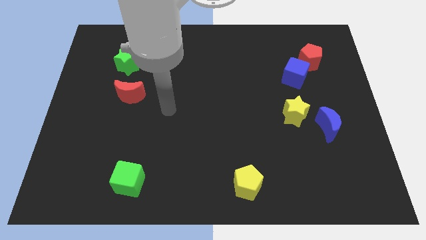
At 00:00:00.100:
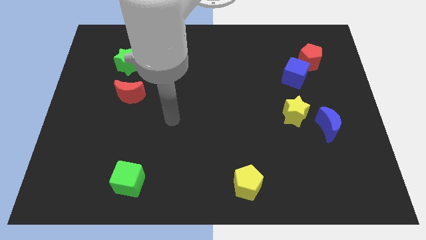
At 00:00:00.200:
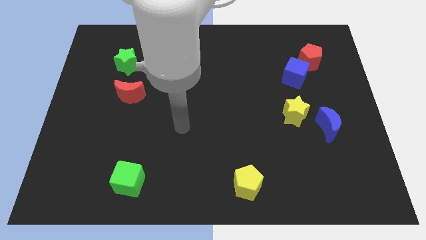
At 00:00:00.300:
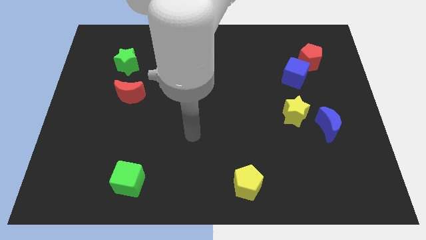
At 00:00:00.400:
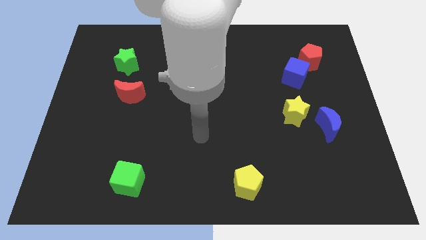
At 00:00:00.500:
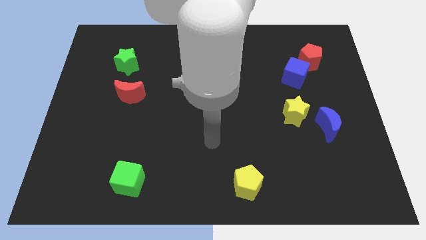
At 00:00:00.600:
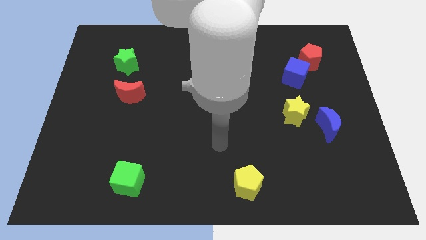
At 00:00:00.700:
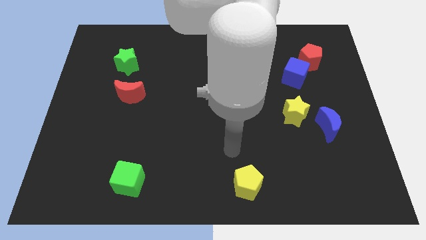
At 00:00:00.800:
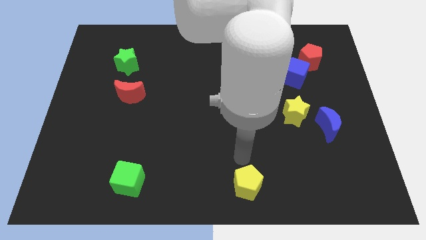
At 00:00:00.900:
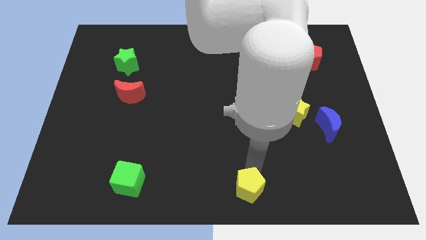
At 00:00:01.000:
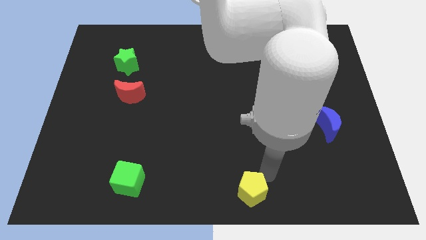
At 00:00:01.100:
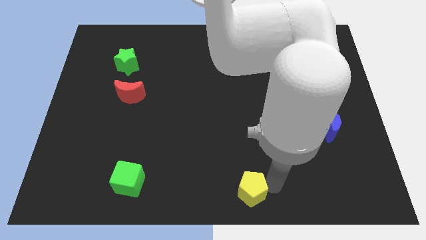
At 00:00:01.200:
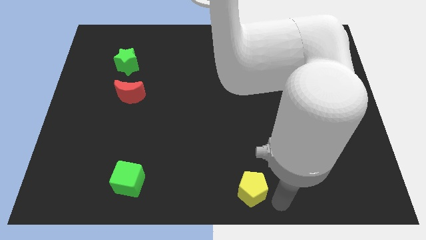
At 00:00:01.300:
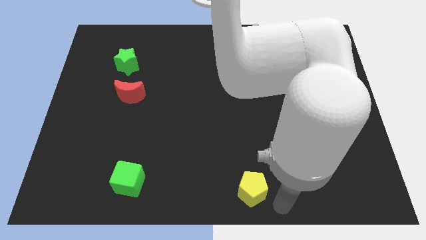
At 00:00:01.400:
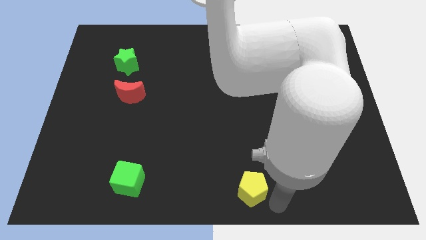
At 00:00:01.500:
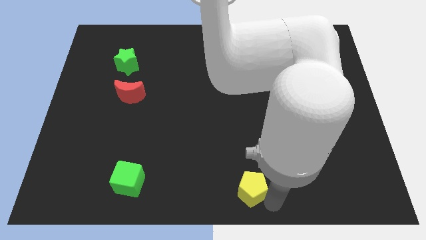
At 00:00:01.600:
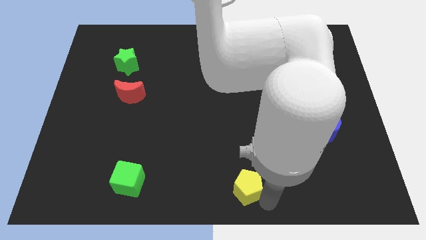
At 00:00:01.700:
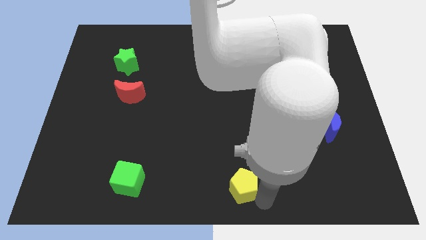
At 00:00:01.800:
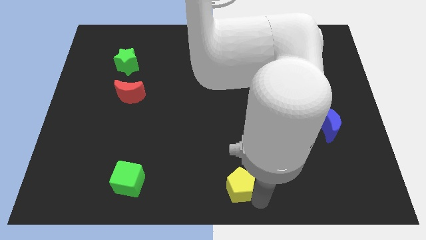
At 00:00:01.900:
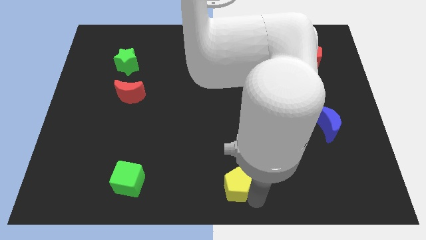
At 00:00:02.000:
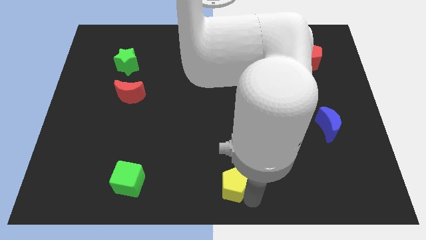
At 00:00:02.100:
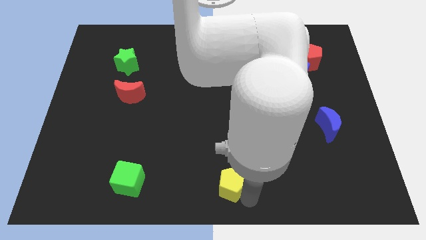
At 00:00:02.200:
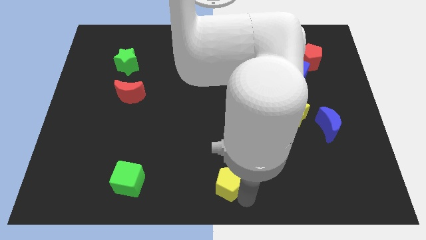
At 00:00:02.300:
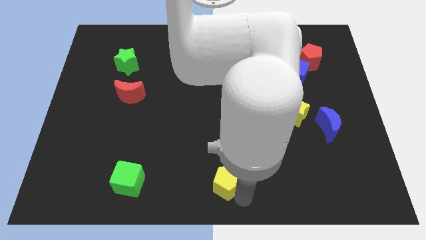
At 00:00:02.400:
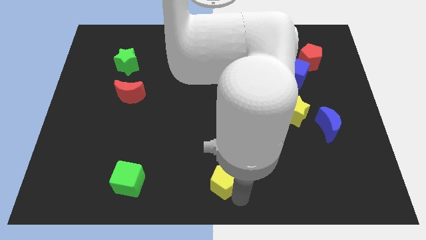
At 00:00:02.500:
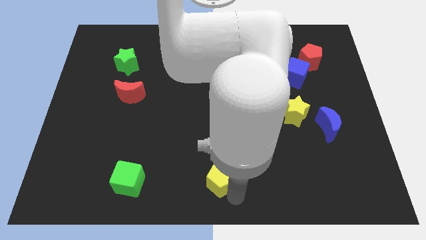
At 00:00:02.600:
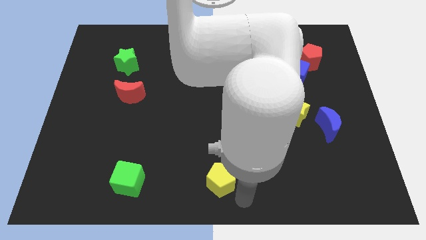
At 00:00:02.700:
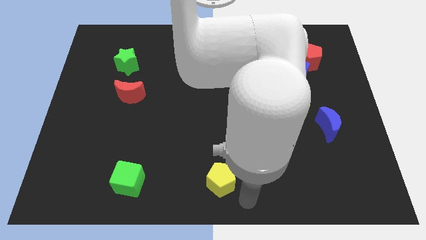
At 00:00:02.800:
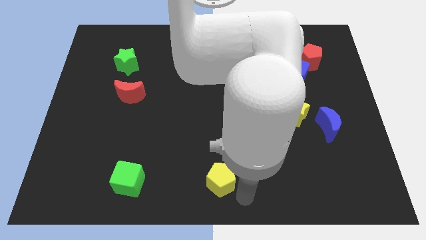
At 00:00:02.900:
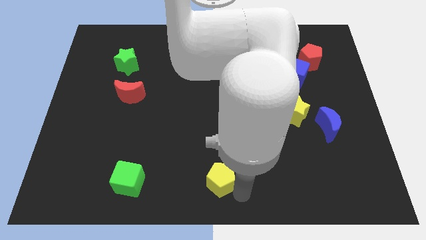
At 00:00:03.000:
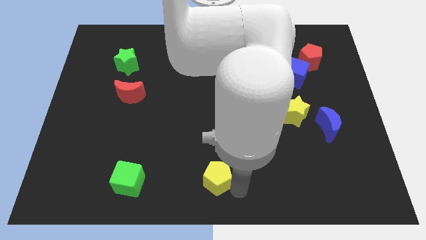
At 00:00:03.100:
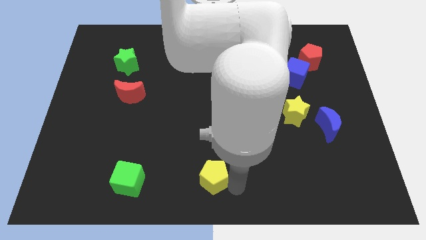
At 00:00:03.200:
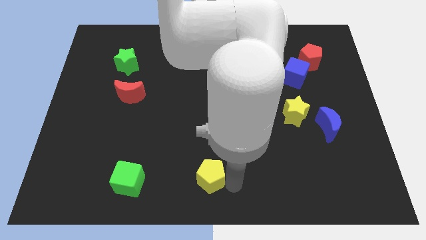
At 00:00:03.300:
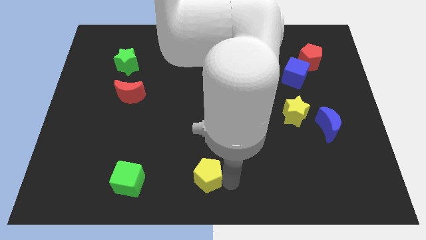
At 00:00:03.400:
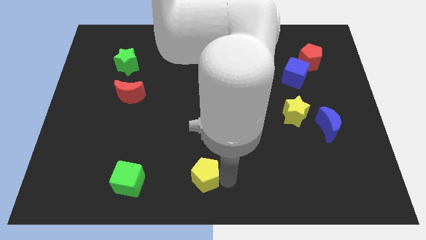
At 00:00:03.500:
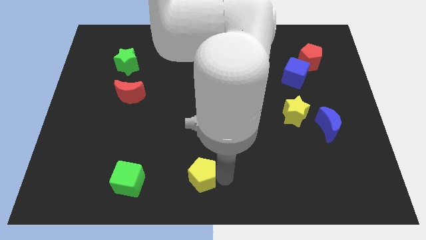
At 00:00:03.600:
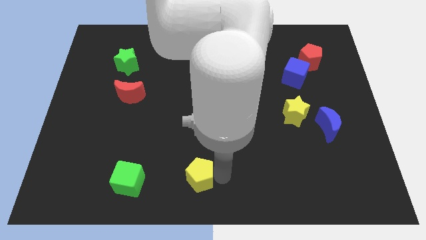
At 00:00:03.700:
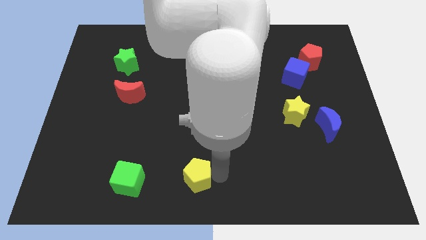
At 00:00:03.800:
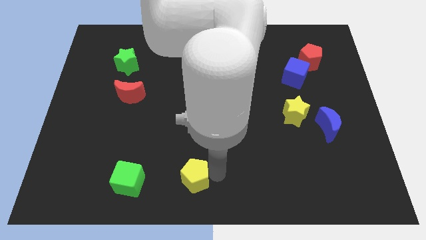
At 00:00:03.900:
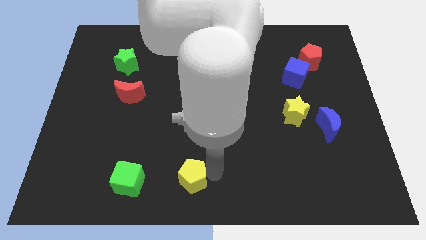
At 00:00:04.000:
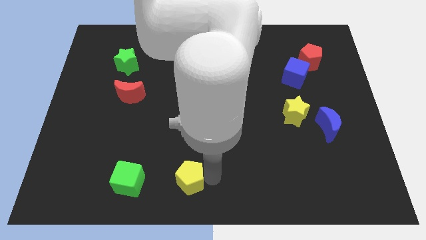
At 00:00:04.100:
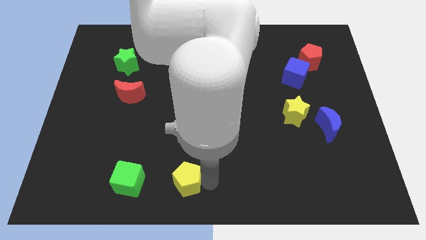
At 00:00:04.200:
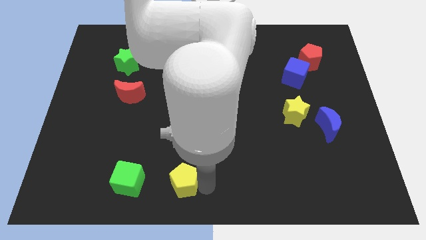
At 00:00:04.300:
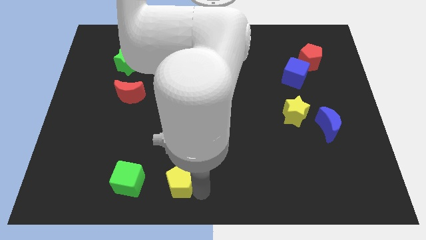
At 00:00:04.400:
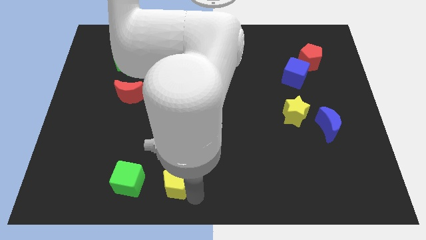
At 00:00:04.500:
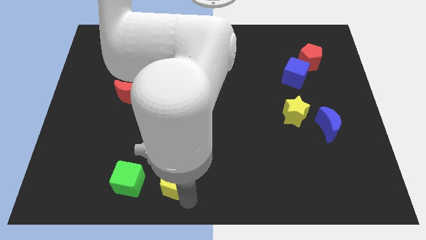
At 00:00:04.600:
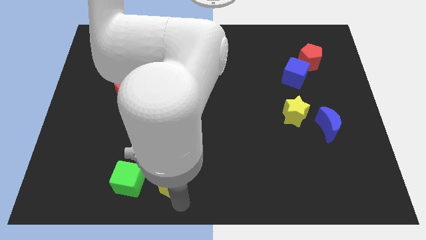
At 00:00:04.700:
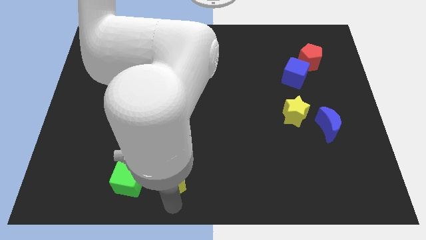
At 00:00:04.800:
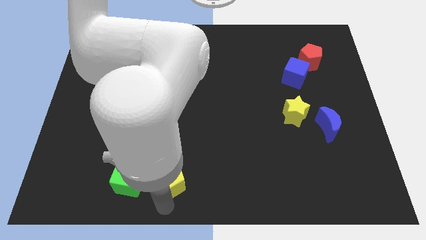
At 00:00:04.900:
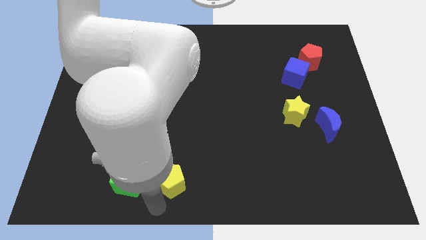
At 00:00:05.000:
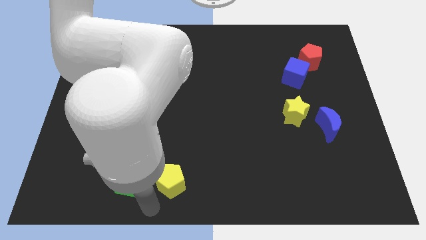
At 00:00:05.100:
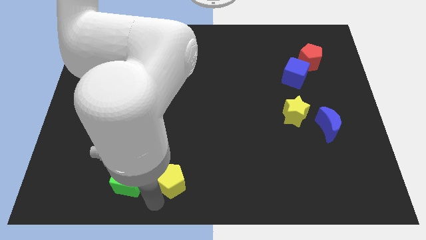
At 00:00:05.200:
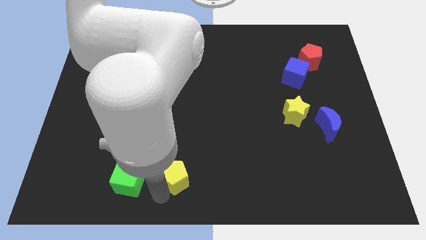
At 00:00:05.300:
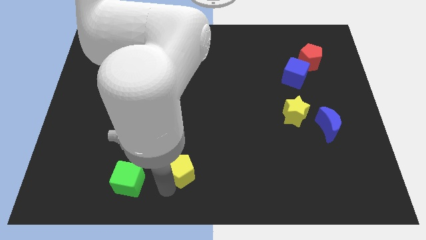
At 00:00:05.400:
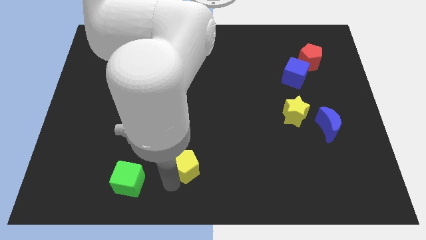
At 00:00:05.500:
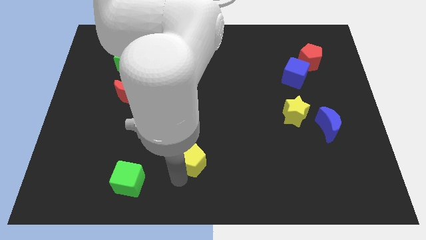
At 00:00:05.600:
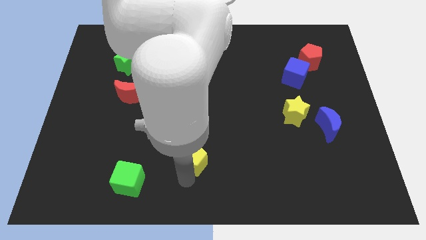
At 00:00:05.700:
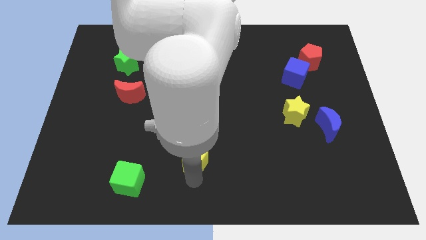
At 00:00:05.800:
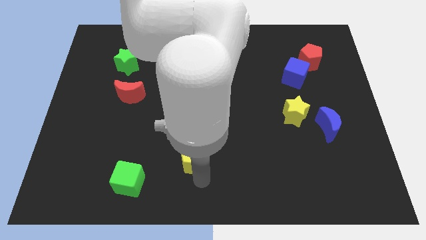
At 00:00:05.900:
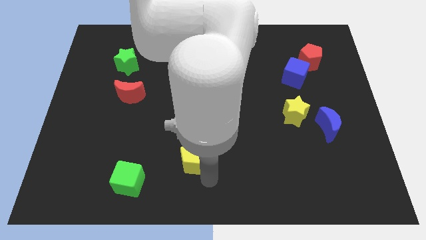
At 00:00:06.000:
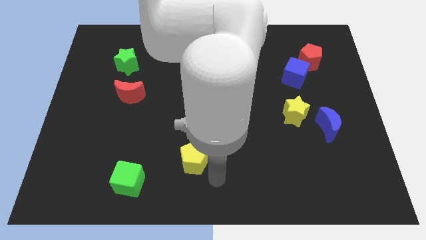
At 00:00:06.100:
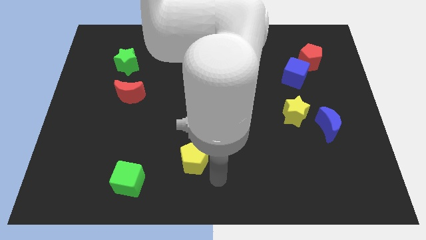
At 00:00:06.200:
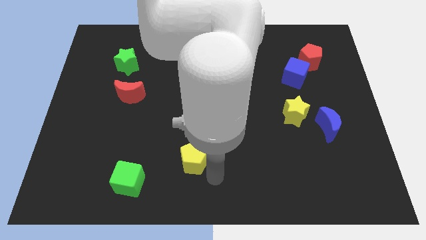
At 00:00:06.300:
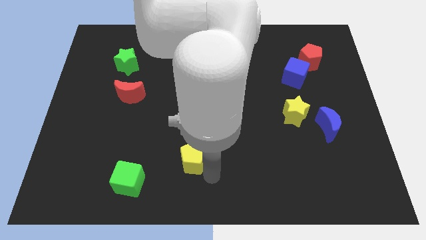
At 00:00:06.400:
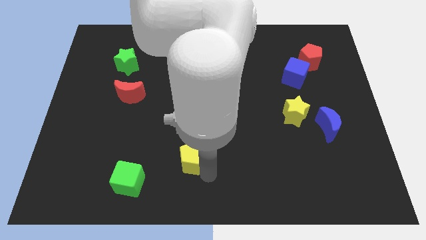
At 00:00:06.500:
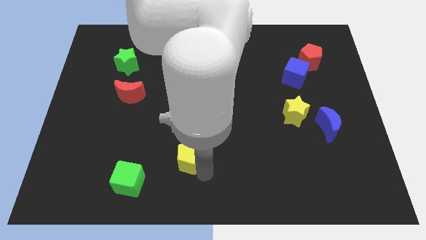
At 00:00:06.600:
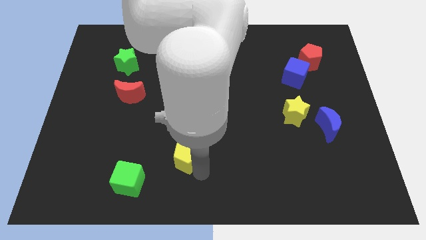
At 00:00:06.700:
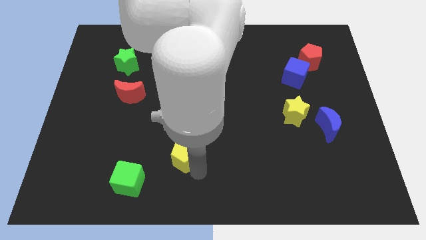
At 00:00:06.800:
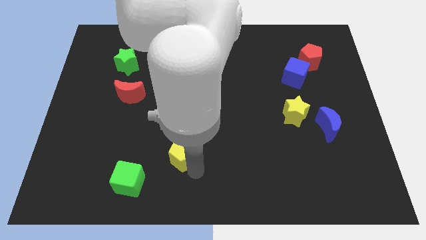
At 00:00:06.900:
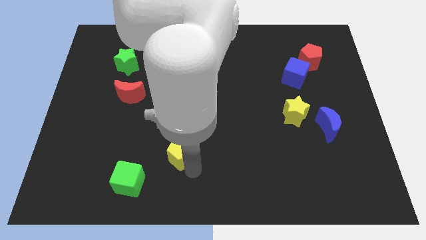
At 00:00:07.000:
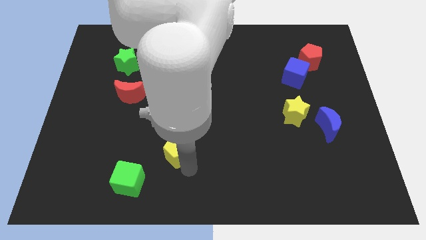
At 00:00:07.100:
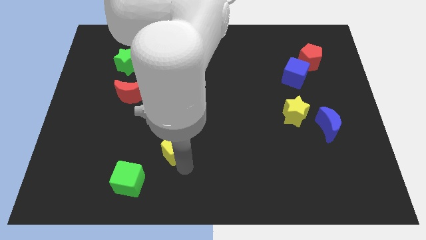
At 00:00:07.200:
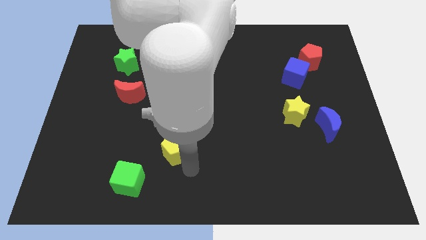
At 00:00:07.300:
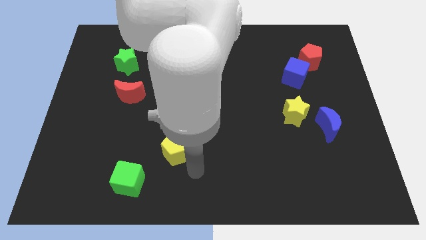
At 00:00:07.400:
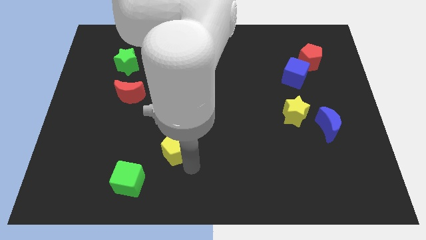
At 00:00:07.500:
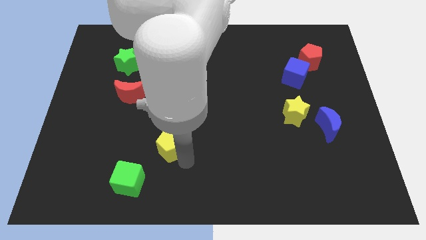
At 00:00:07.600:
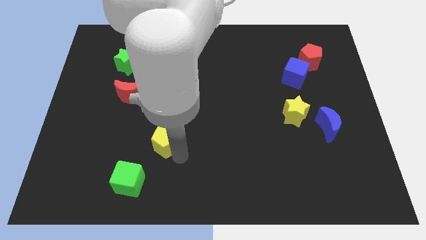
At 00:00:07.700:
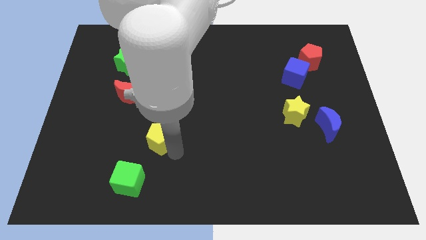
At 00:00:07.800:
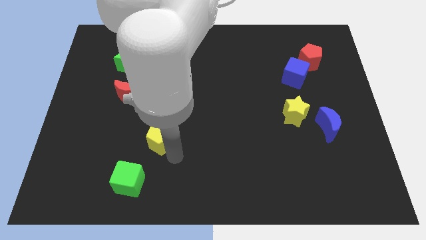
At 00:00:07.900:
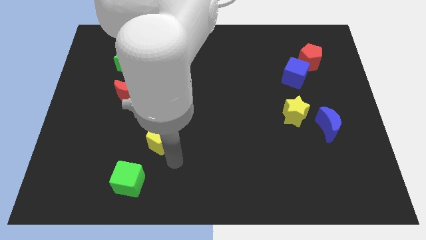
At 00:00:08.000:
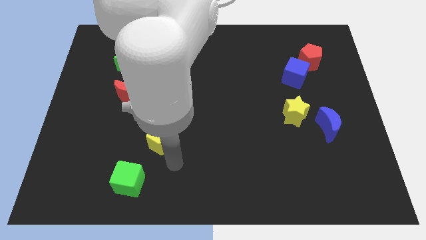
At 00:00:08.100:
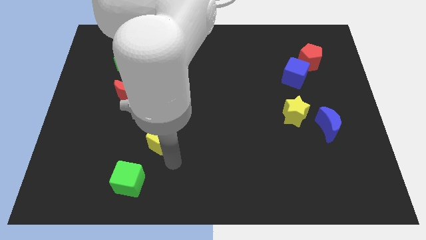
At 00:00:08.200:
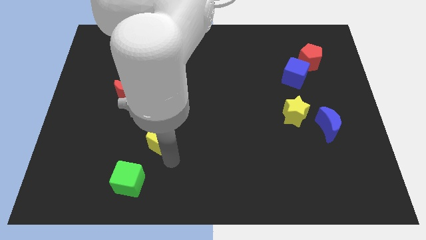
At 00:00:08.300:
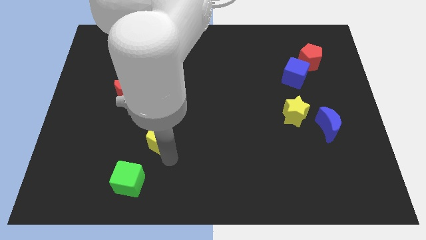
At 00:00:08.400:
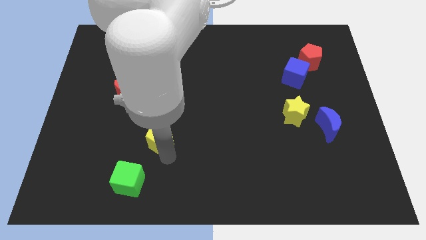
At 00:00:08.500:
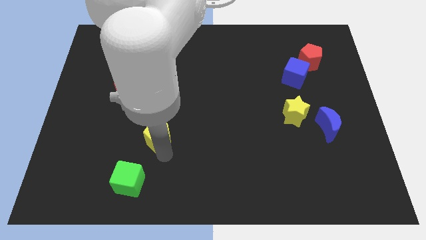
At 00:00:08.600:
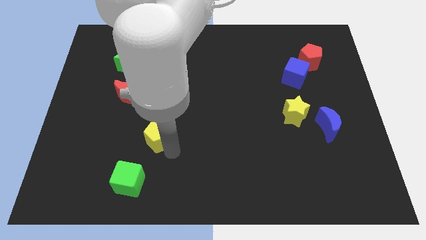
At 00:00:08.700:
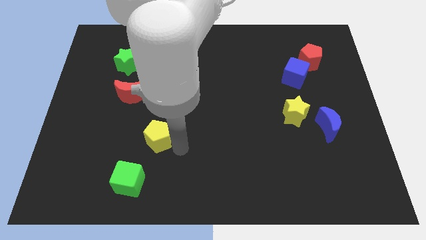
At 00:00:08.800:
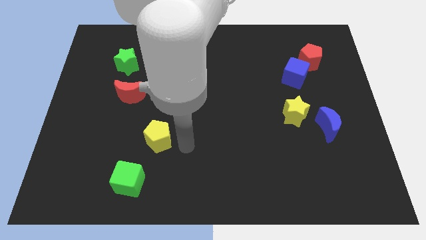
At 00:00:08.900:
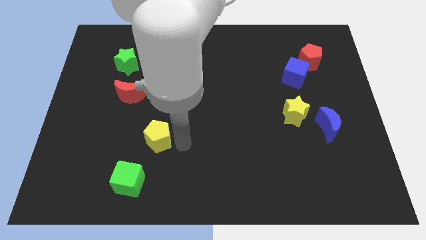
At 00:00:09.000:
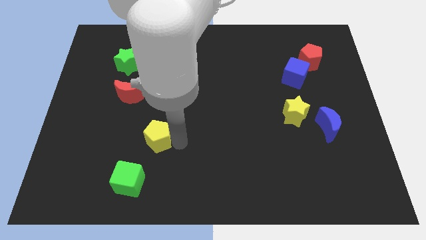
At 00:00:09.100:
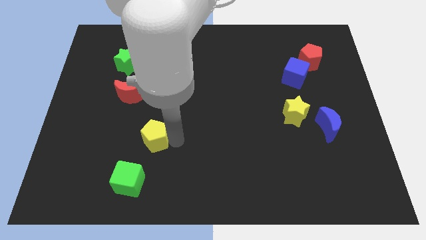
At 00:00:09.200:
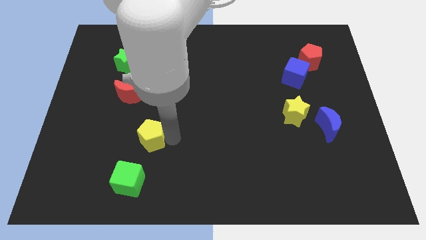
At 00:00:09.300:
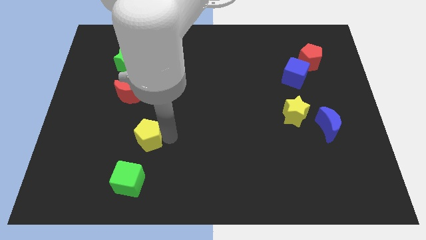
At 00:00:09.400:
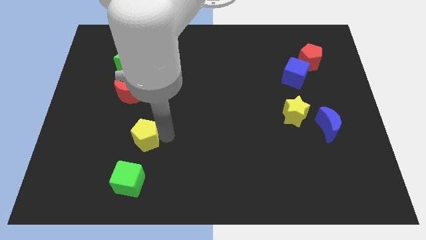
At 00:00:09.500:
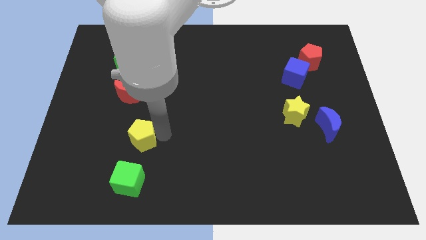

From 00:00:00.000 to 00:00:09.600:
move the yellow pentagon below the red moon
